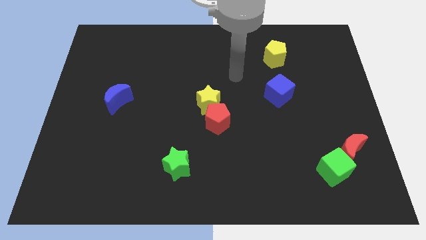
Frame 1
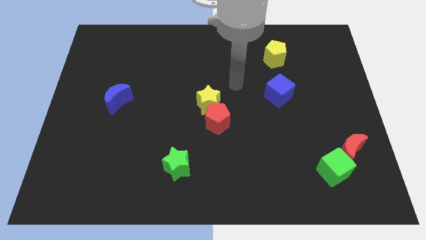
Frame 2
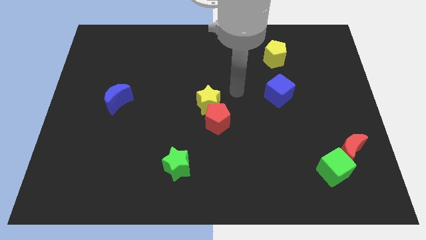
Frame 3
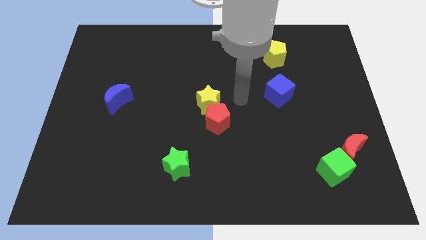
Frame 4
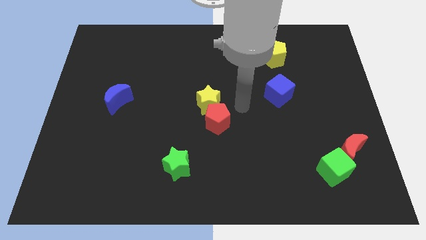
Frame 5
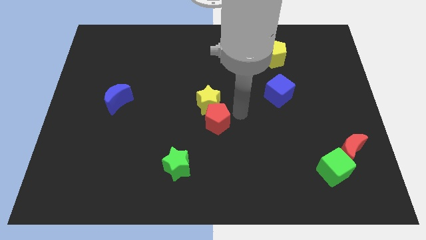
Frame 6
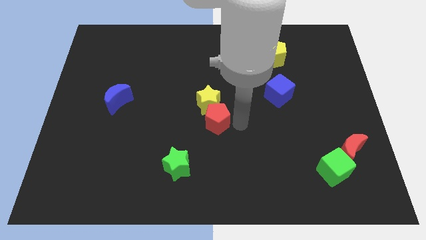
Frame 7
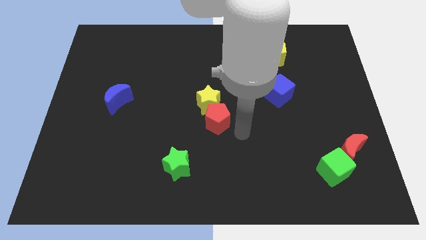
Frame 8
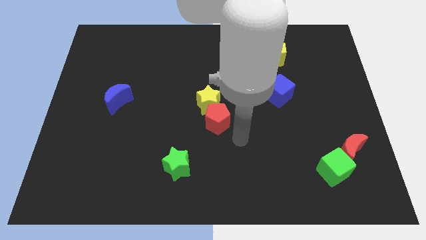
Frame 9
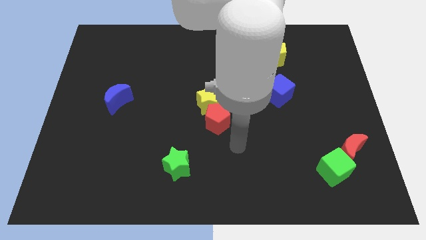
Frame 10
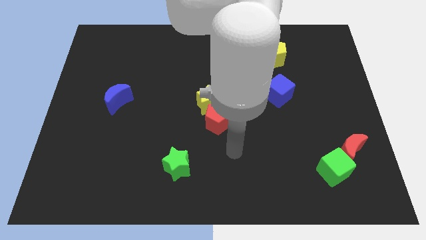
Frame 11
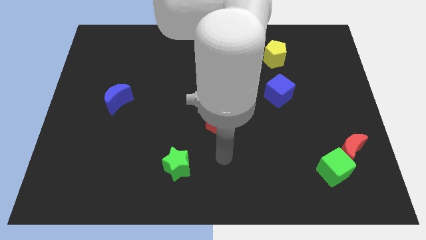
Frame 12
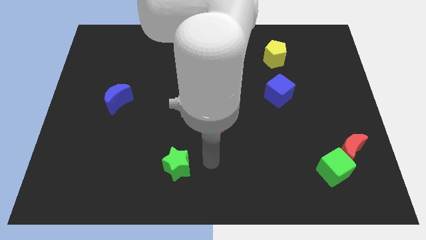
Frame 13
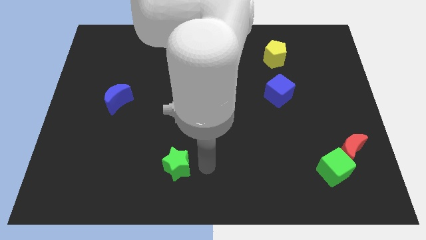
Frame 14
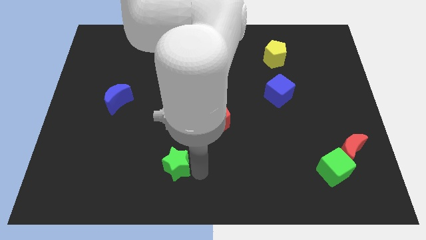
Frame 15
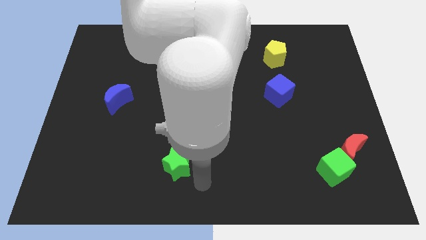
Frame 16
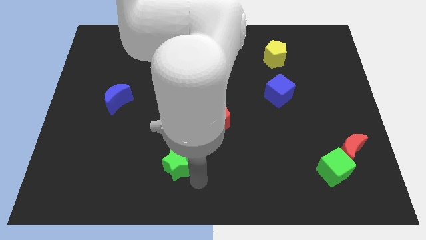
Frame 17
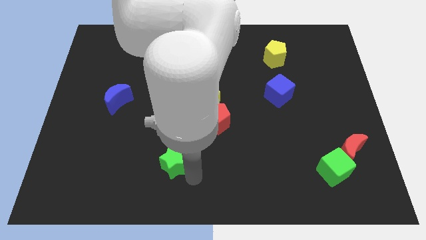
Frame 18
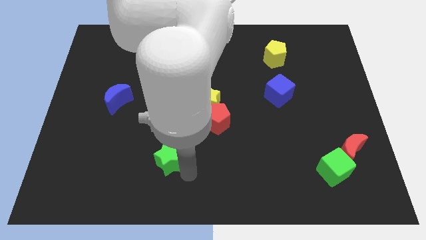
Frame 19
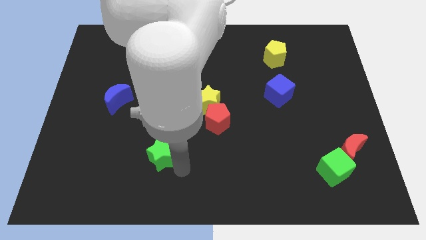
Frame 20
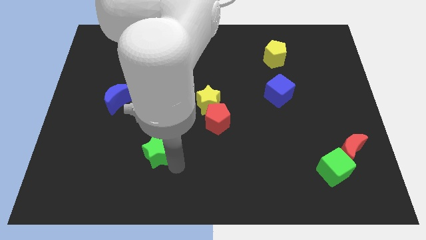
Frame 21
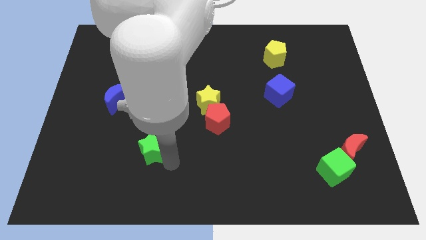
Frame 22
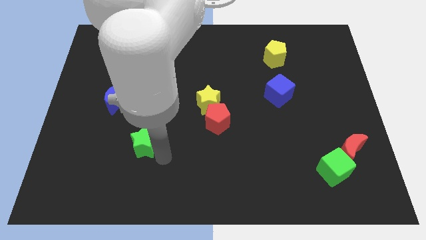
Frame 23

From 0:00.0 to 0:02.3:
slightly move the green star upwards and then left

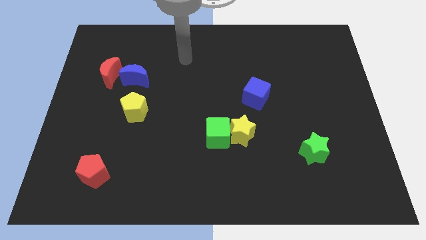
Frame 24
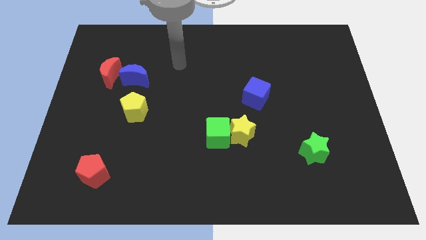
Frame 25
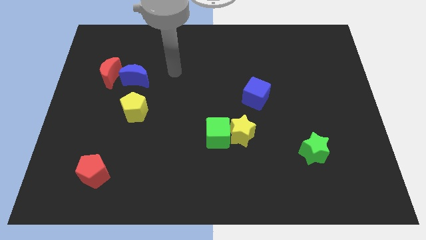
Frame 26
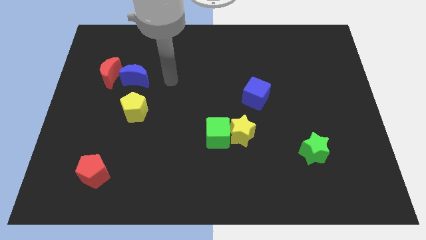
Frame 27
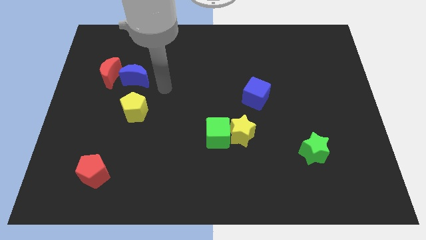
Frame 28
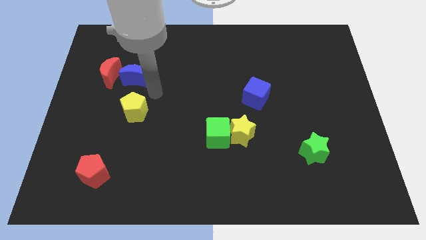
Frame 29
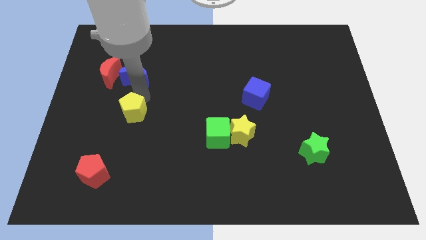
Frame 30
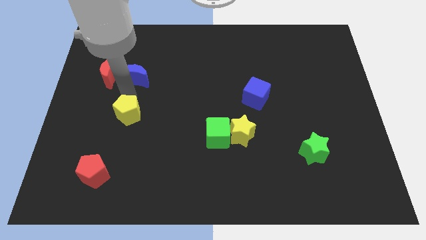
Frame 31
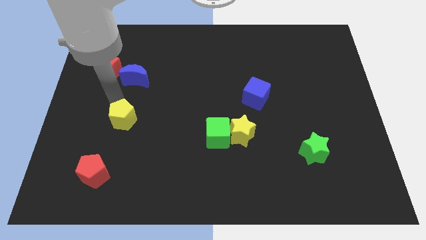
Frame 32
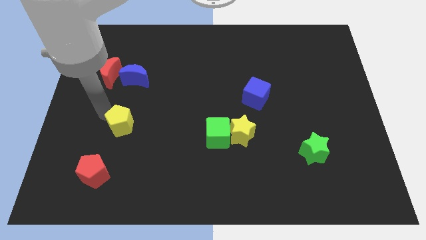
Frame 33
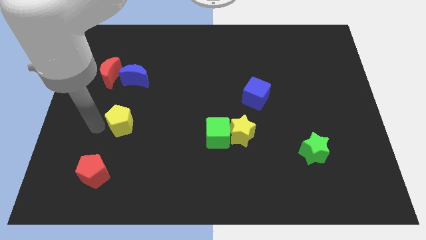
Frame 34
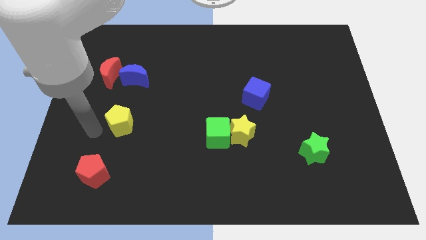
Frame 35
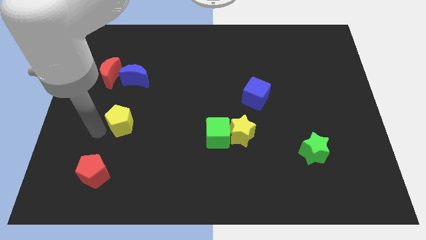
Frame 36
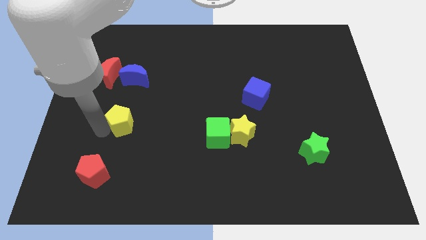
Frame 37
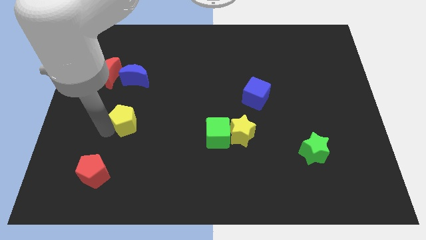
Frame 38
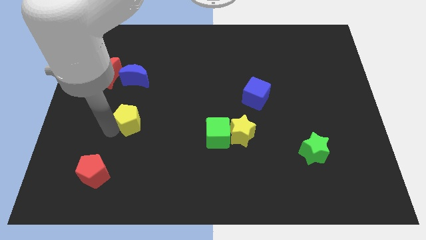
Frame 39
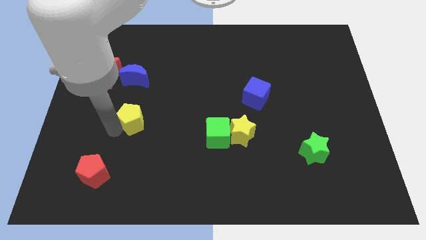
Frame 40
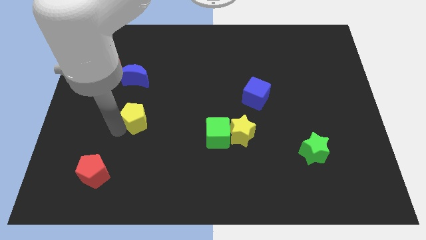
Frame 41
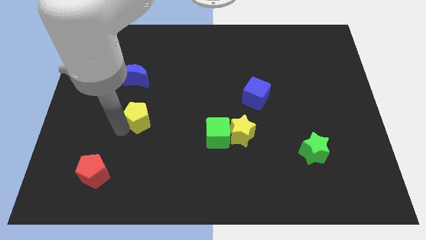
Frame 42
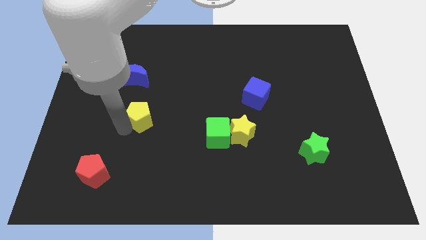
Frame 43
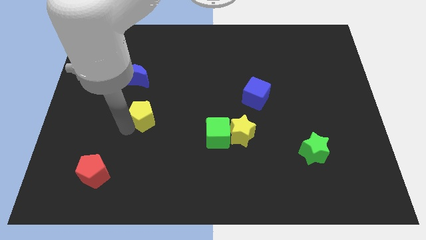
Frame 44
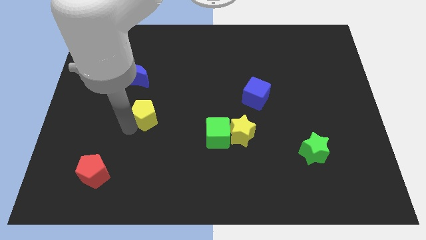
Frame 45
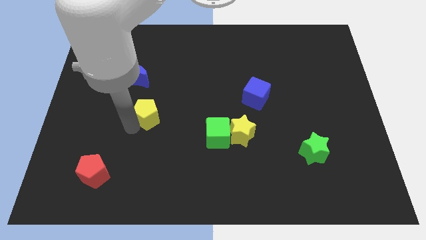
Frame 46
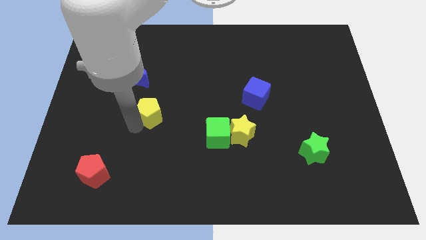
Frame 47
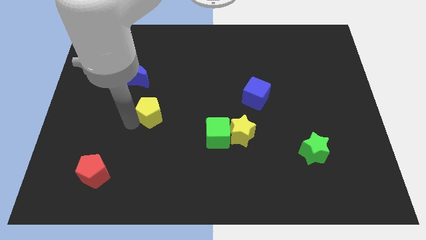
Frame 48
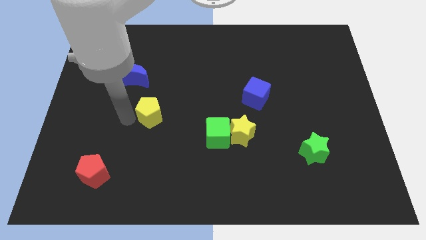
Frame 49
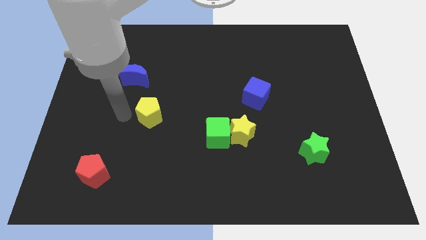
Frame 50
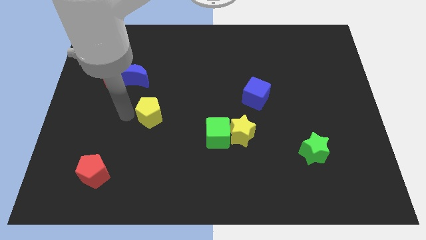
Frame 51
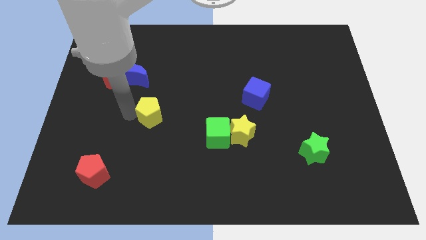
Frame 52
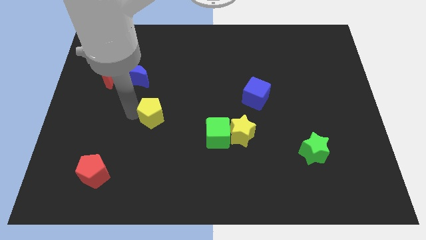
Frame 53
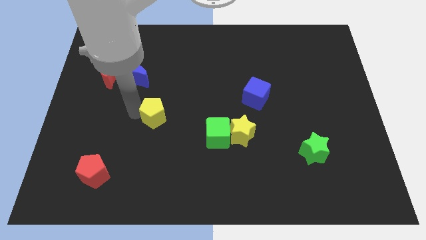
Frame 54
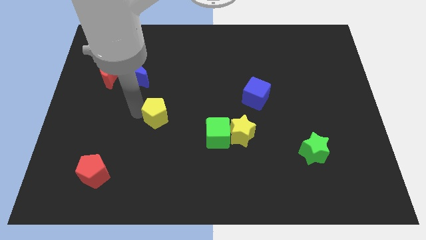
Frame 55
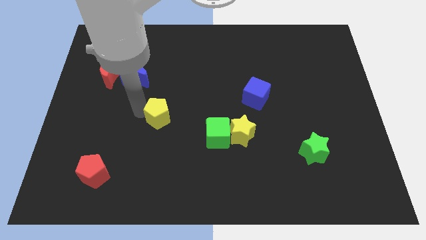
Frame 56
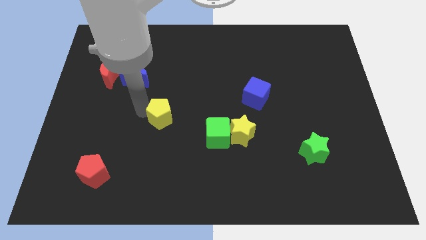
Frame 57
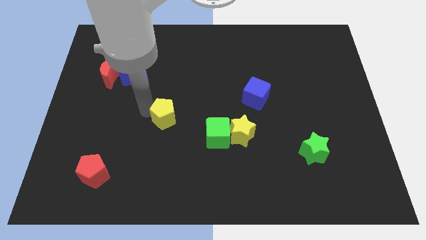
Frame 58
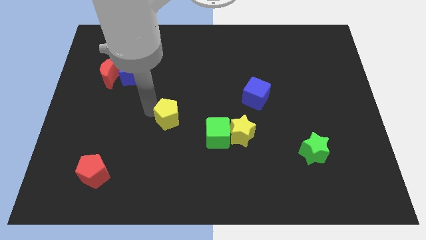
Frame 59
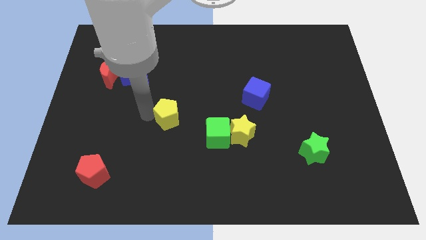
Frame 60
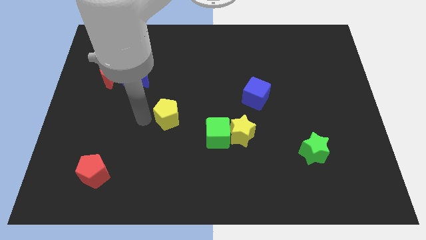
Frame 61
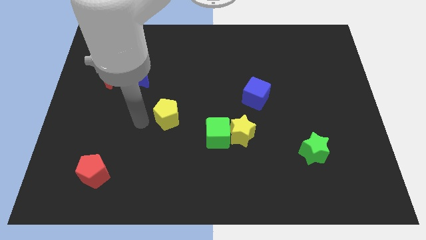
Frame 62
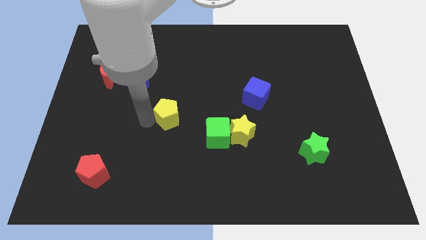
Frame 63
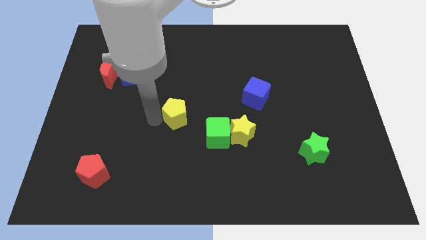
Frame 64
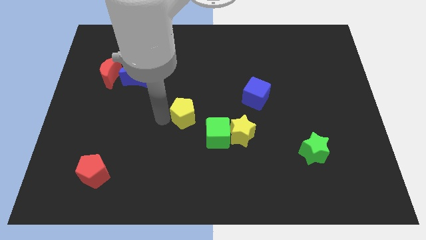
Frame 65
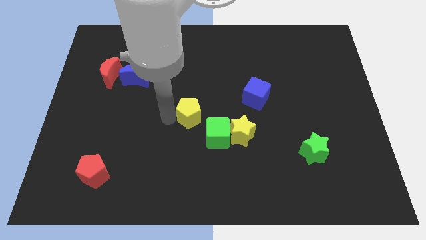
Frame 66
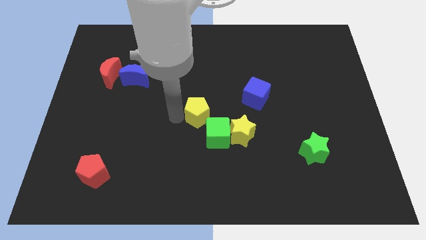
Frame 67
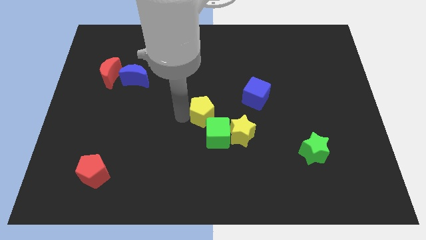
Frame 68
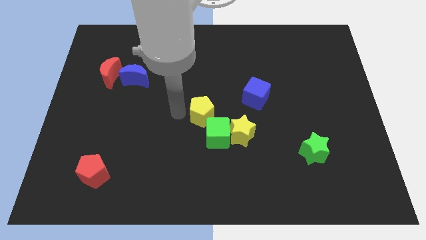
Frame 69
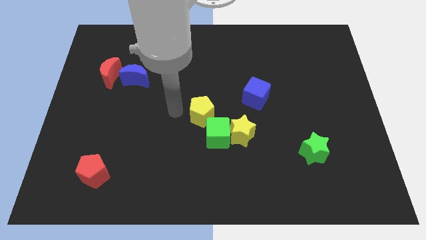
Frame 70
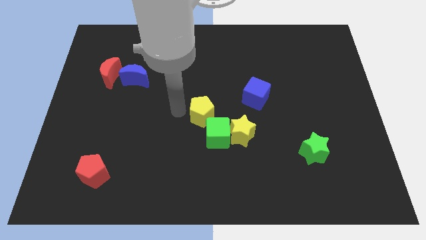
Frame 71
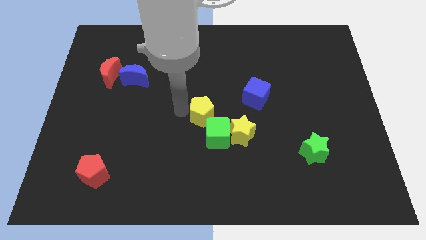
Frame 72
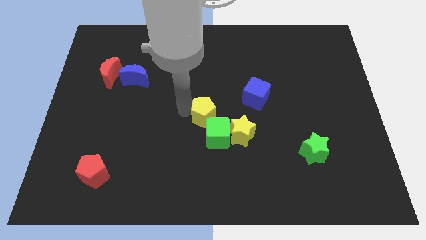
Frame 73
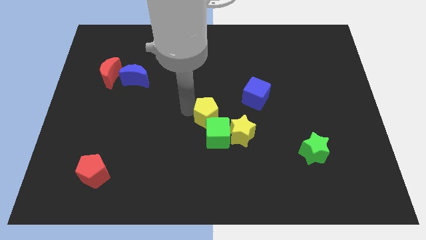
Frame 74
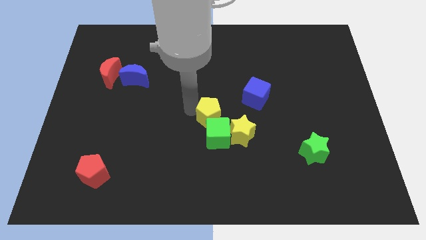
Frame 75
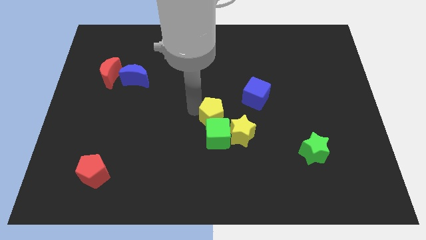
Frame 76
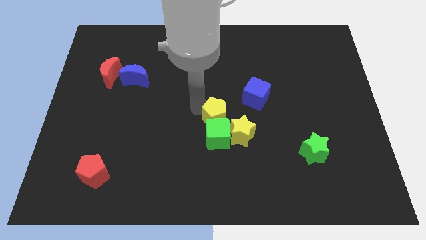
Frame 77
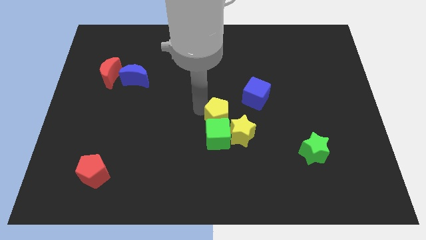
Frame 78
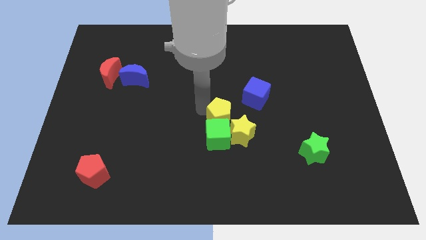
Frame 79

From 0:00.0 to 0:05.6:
move the yellow pentagon right
